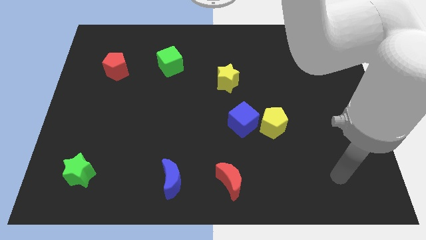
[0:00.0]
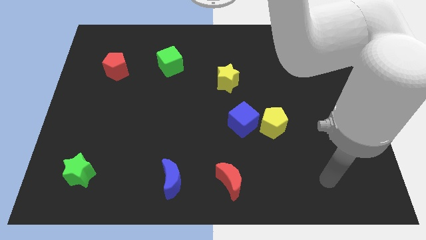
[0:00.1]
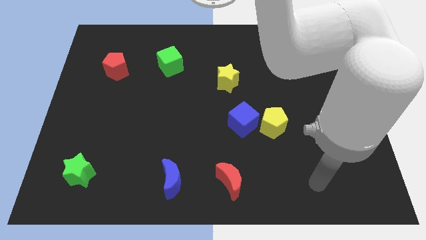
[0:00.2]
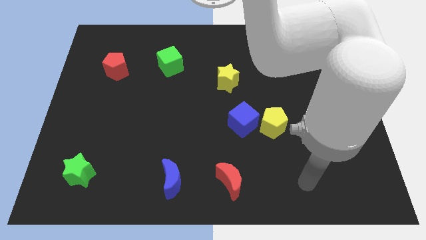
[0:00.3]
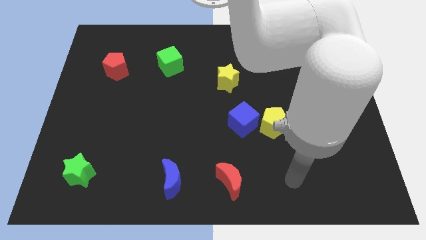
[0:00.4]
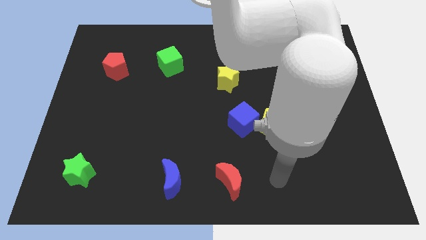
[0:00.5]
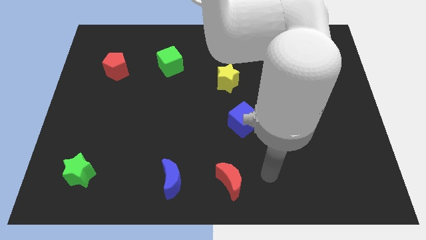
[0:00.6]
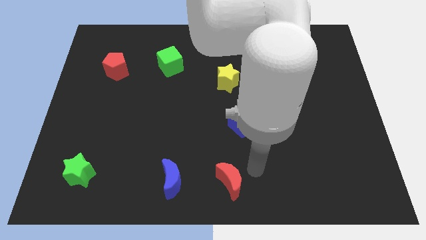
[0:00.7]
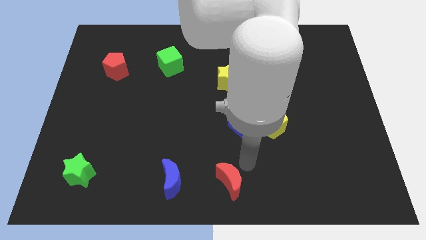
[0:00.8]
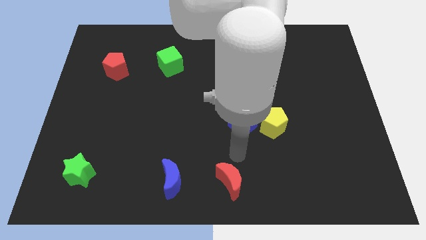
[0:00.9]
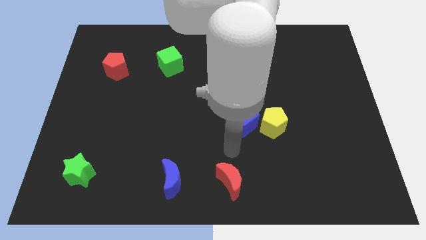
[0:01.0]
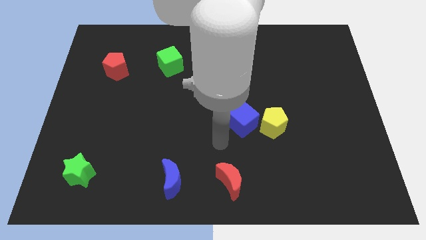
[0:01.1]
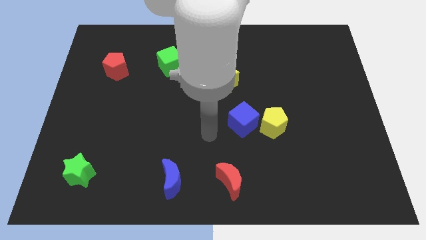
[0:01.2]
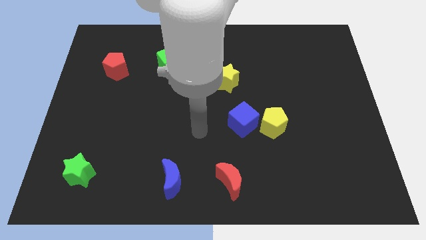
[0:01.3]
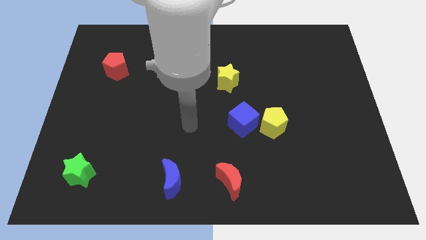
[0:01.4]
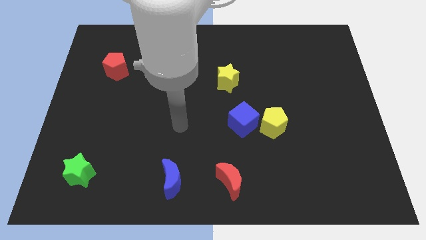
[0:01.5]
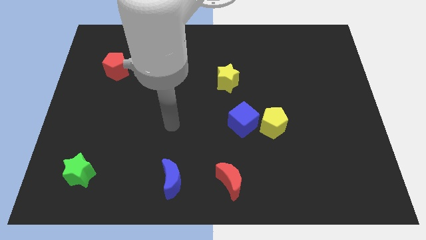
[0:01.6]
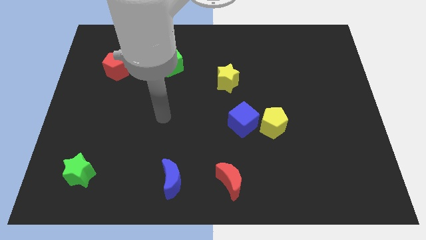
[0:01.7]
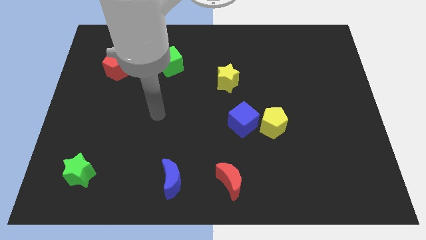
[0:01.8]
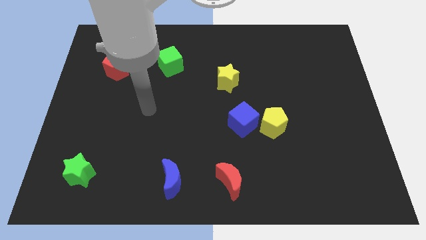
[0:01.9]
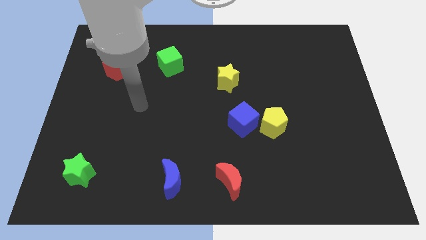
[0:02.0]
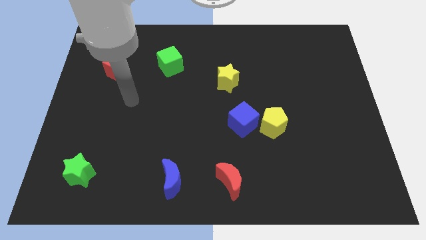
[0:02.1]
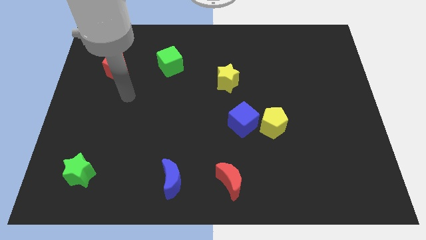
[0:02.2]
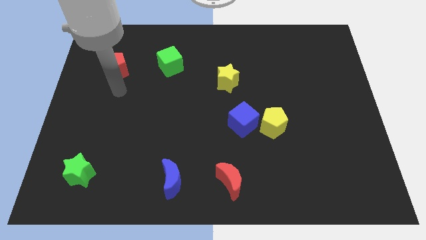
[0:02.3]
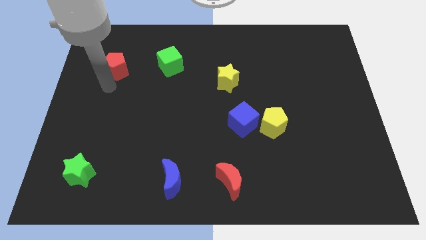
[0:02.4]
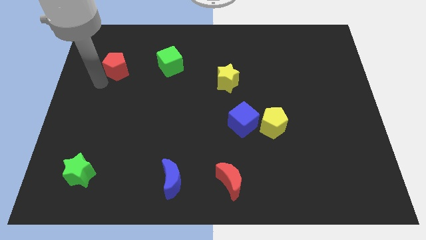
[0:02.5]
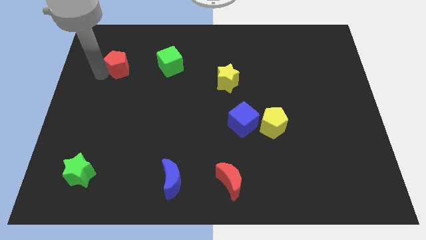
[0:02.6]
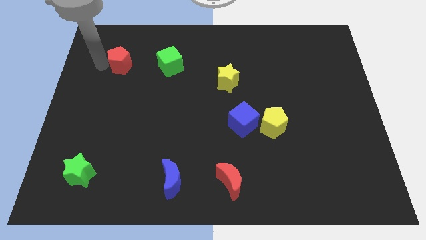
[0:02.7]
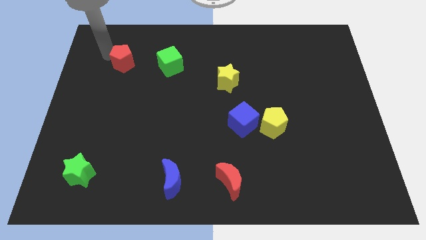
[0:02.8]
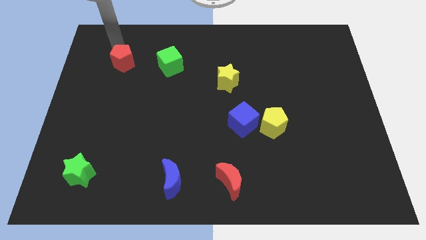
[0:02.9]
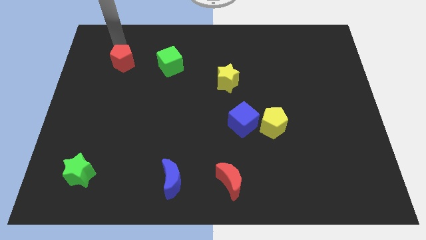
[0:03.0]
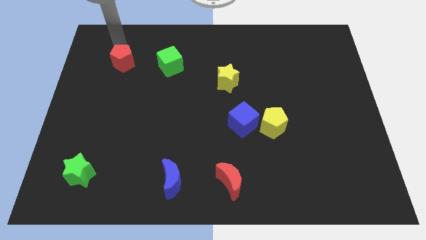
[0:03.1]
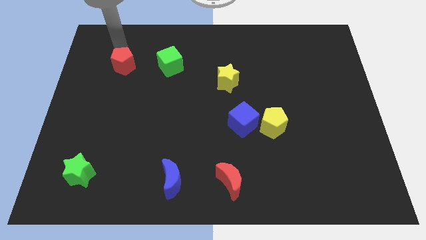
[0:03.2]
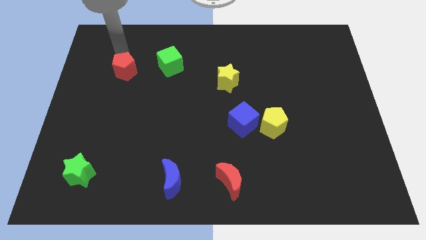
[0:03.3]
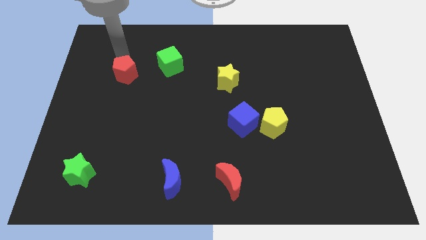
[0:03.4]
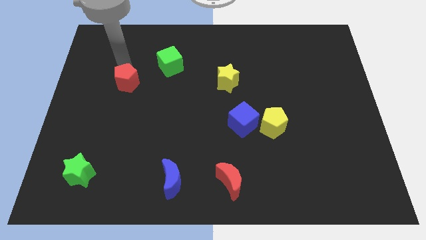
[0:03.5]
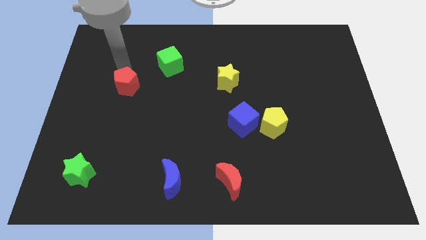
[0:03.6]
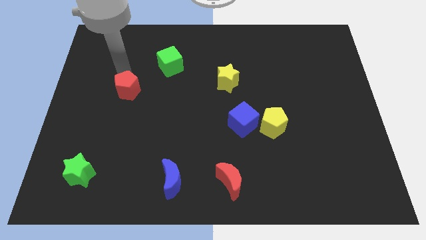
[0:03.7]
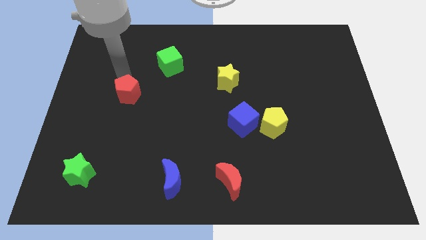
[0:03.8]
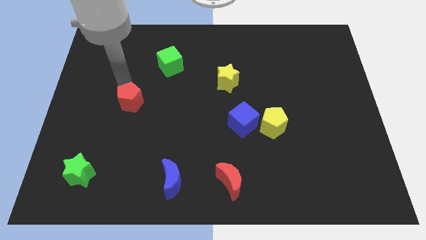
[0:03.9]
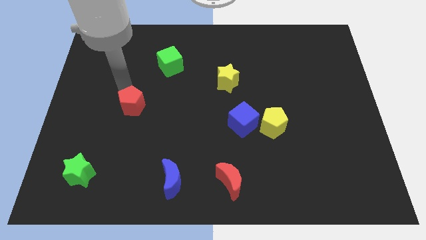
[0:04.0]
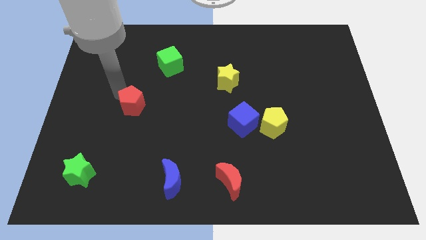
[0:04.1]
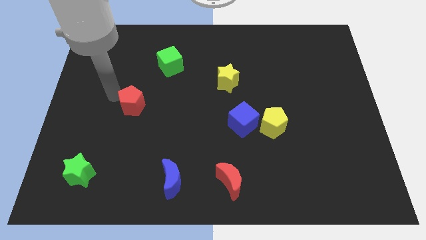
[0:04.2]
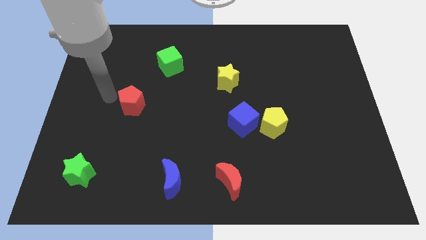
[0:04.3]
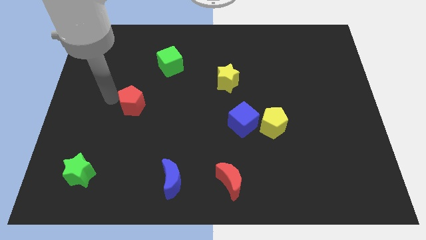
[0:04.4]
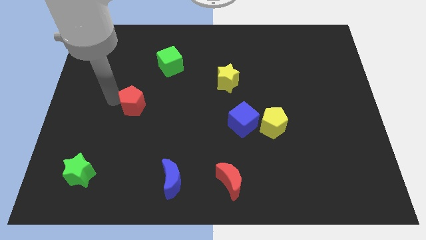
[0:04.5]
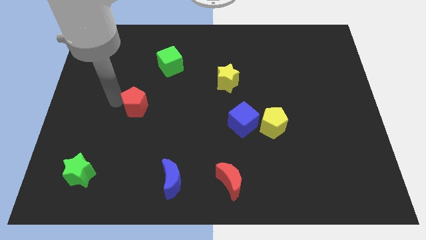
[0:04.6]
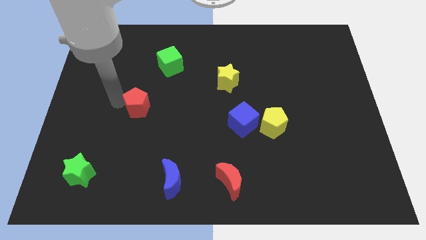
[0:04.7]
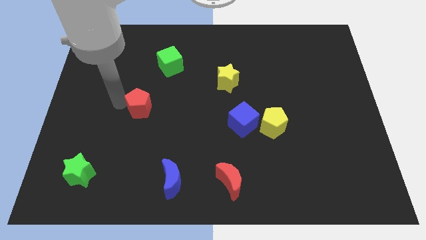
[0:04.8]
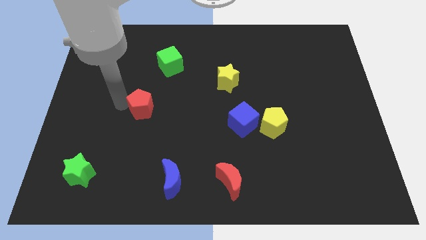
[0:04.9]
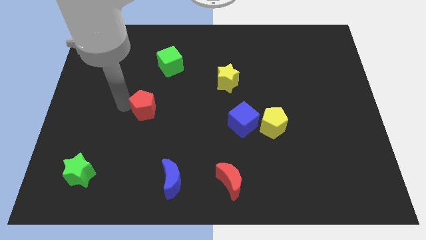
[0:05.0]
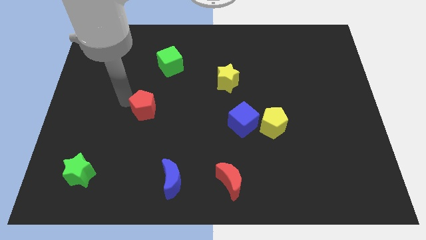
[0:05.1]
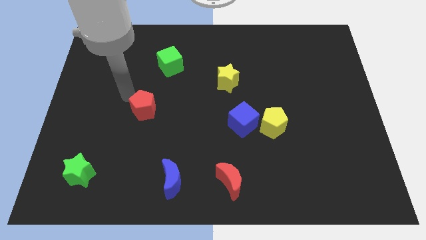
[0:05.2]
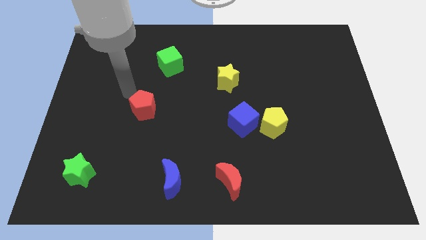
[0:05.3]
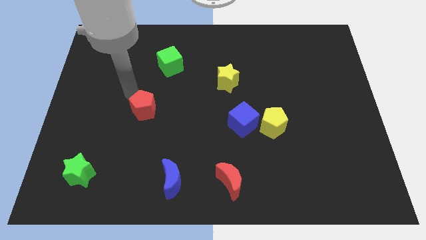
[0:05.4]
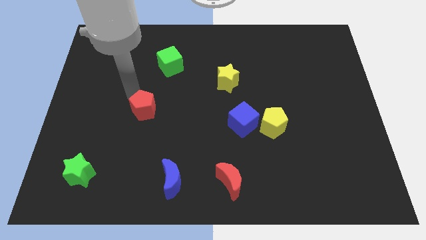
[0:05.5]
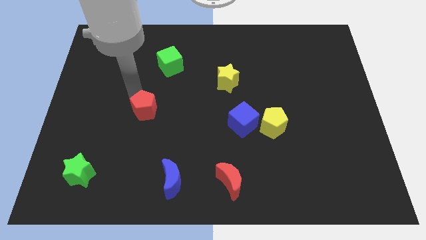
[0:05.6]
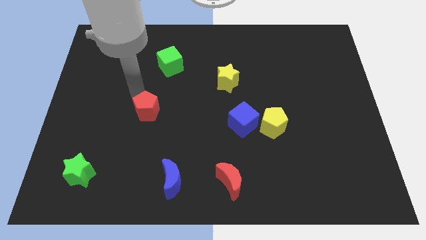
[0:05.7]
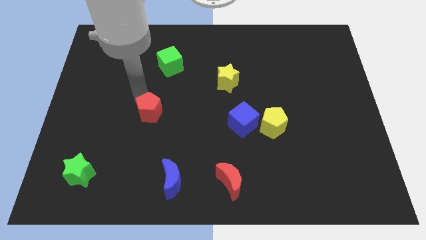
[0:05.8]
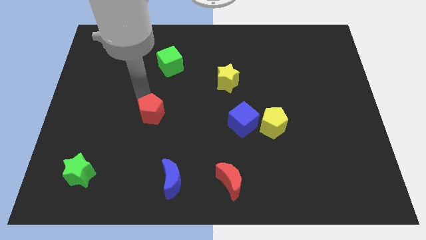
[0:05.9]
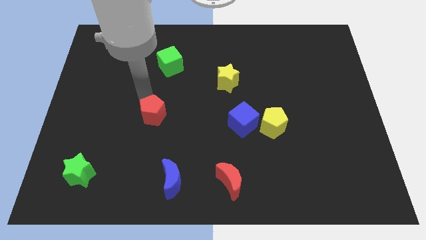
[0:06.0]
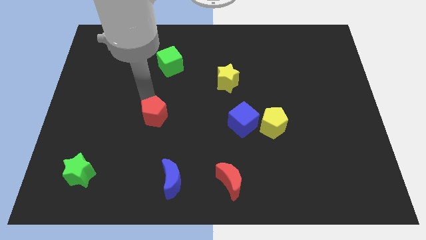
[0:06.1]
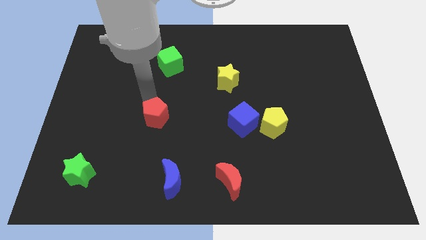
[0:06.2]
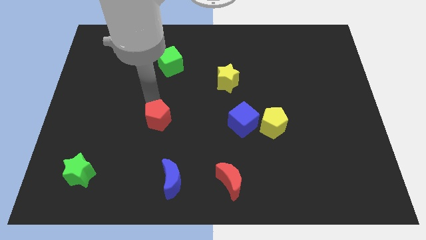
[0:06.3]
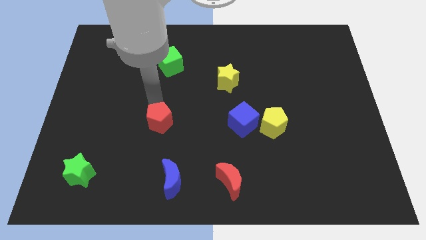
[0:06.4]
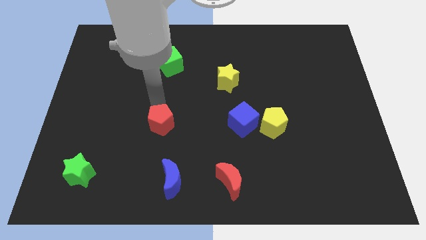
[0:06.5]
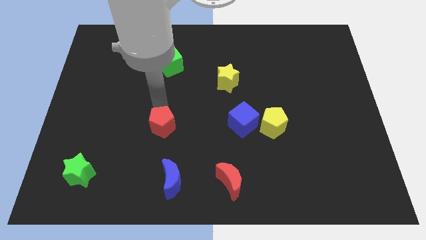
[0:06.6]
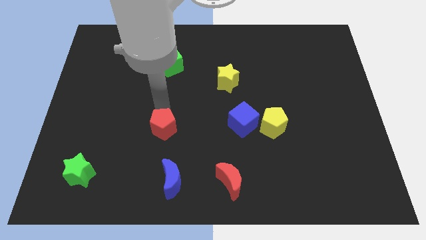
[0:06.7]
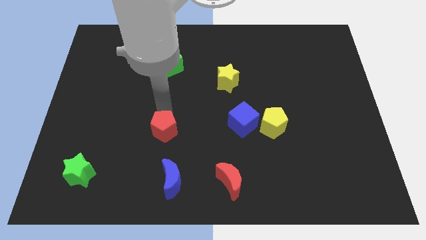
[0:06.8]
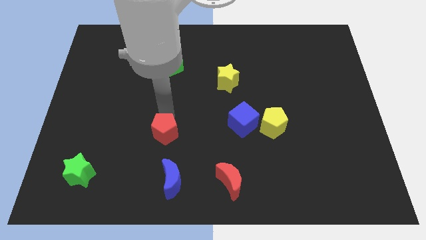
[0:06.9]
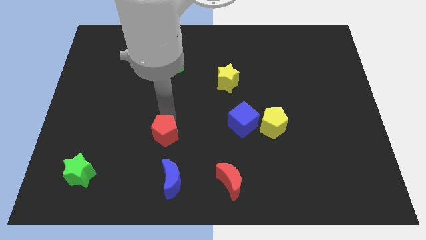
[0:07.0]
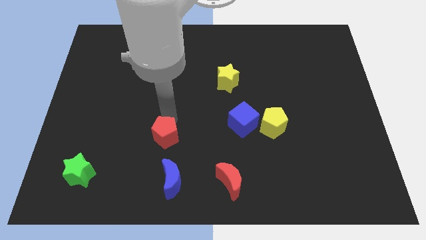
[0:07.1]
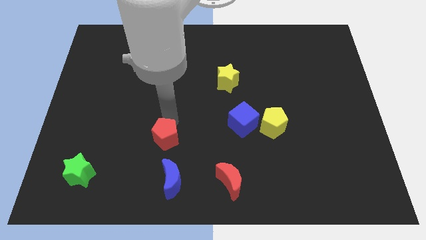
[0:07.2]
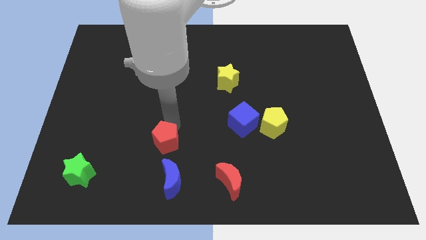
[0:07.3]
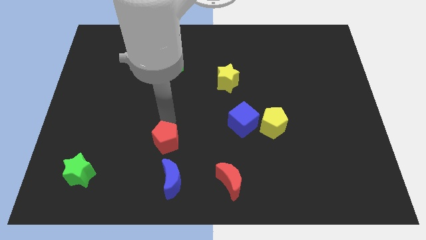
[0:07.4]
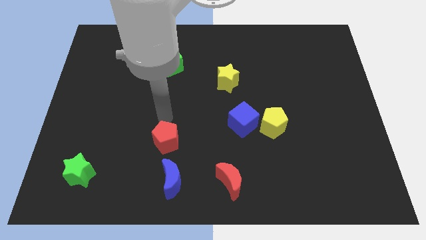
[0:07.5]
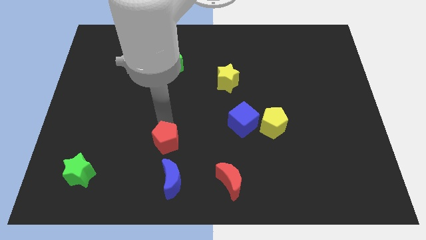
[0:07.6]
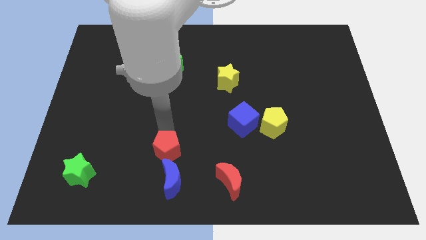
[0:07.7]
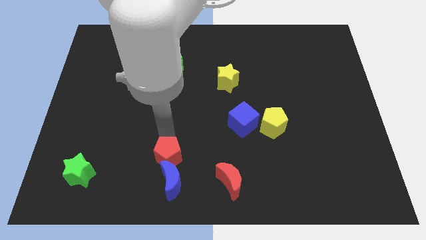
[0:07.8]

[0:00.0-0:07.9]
slide the red pentagon close to the blue moon
